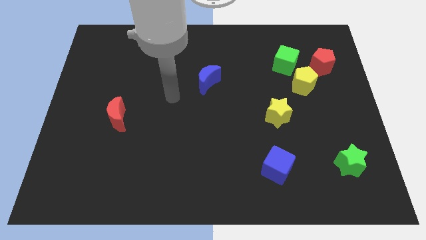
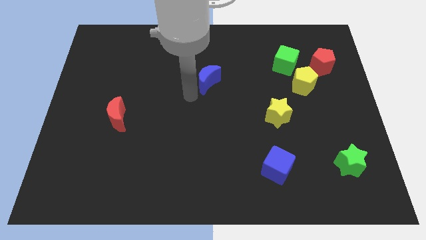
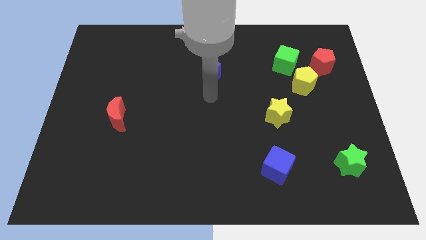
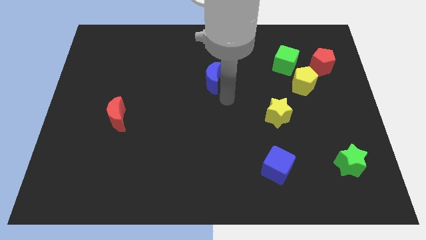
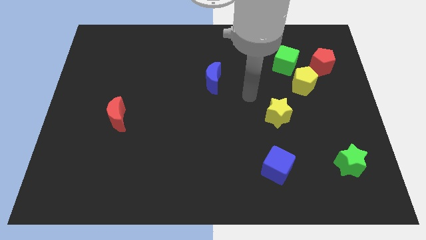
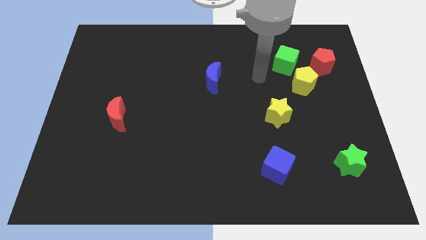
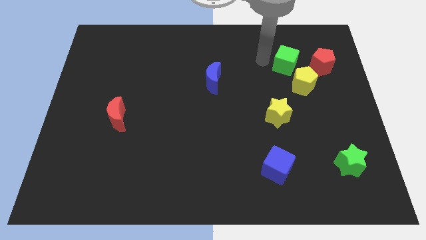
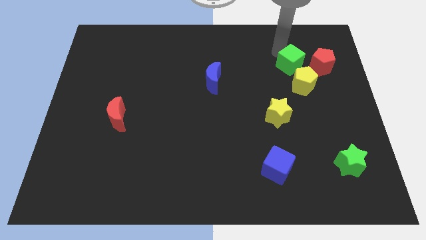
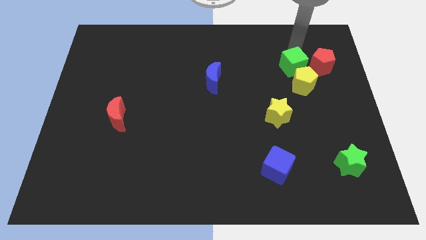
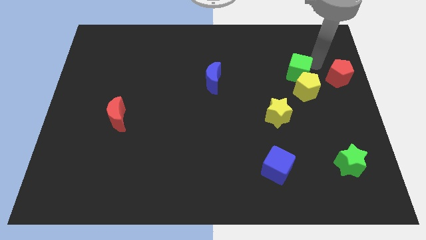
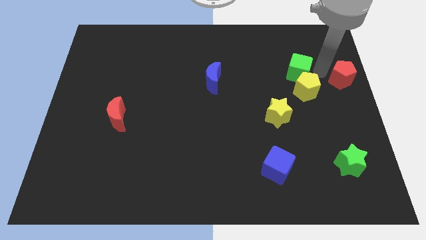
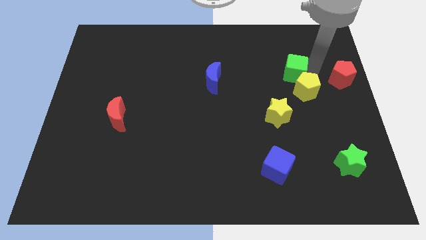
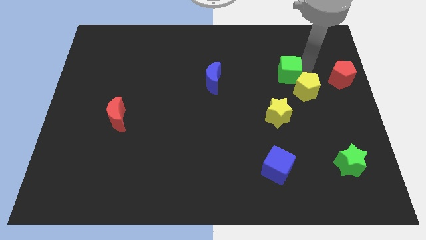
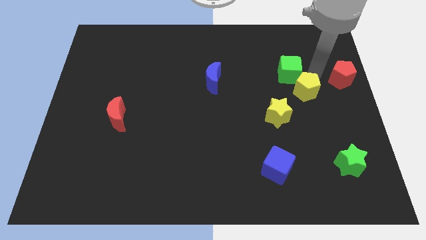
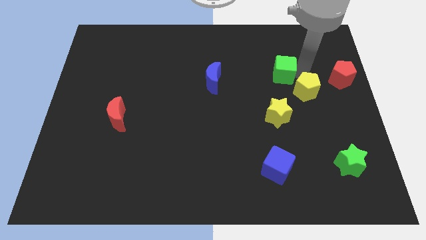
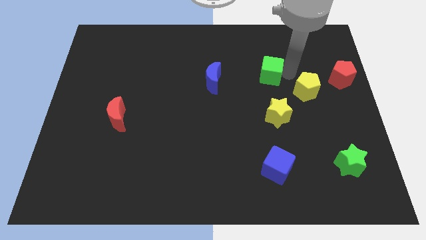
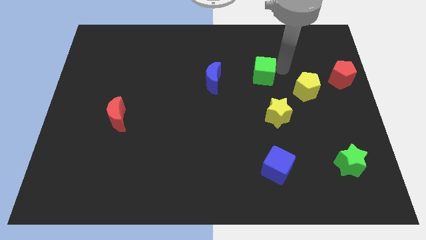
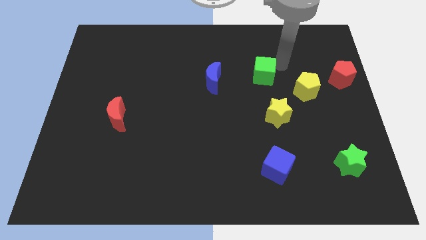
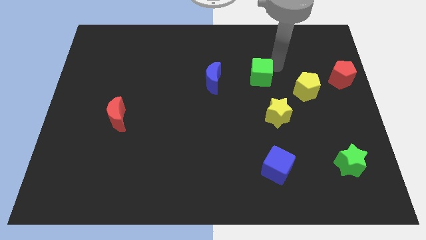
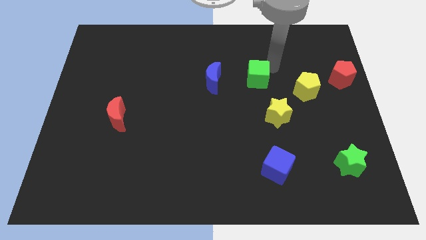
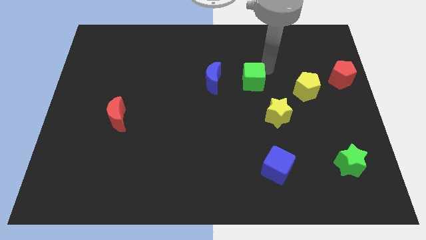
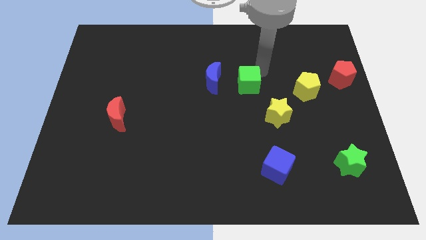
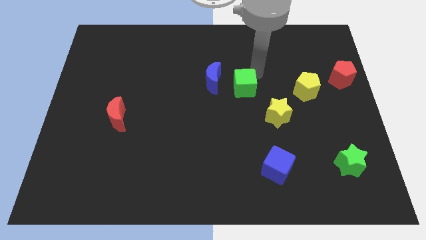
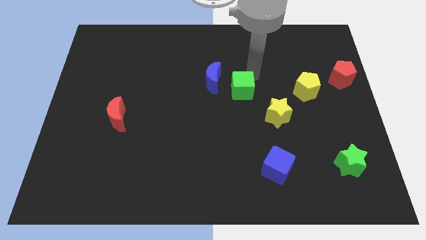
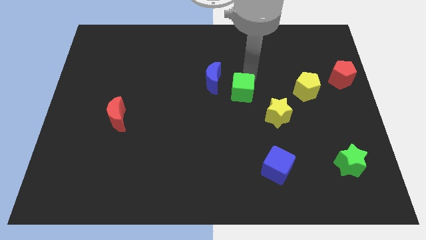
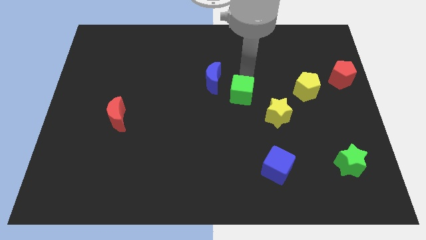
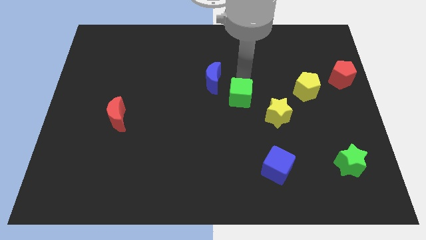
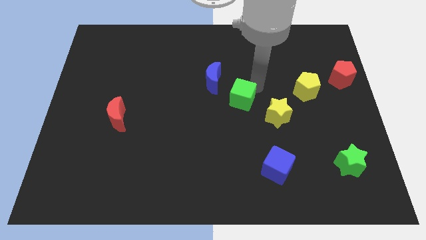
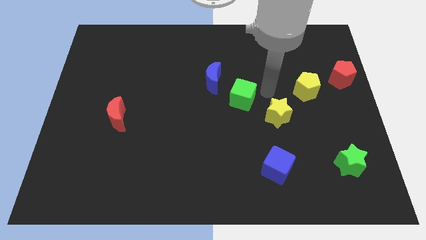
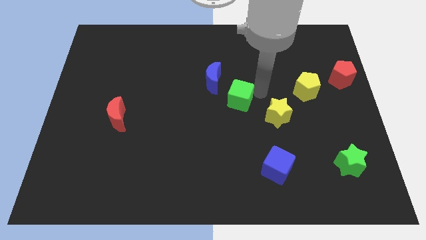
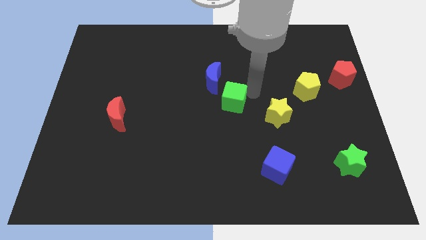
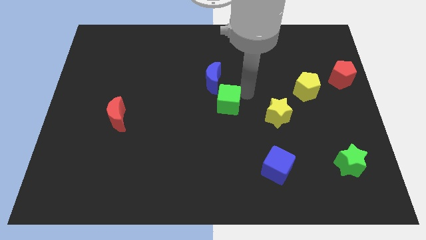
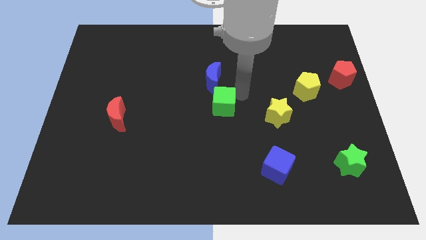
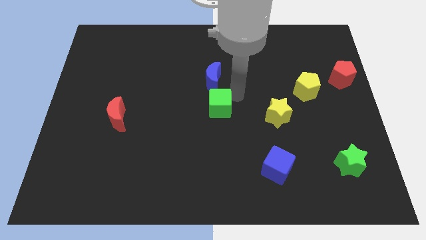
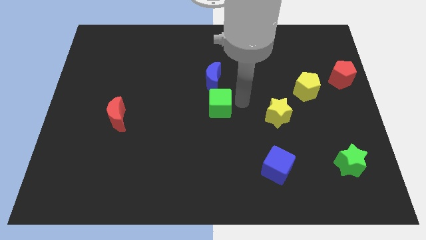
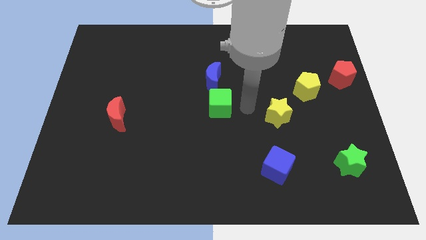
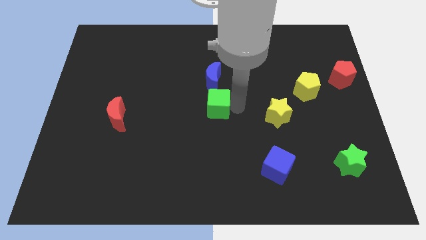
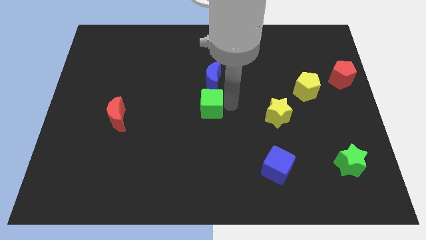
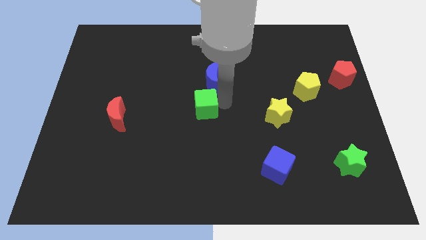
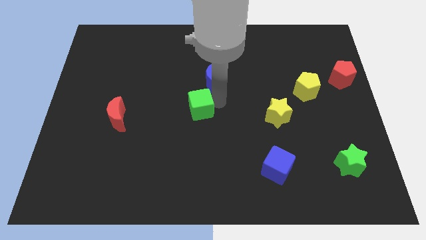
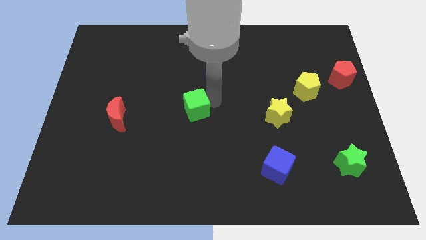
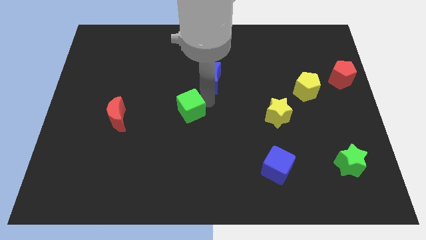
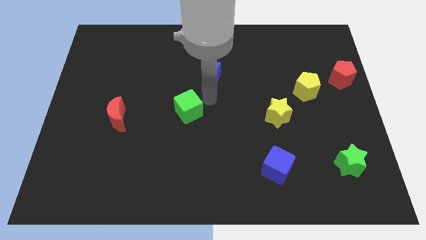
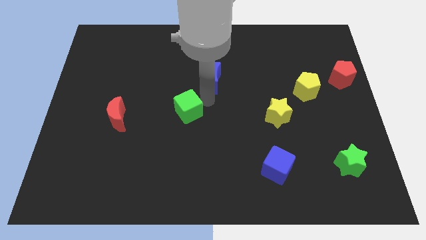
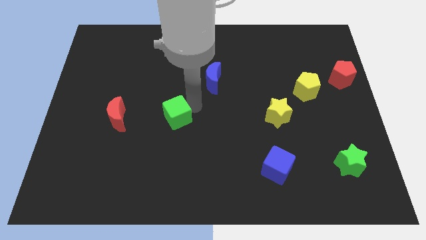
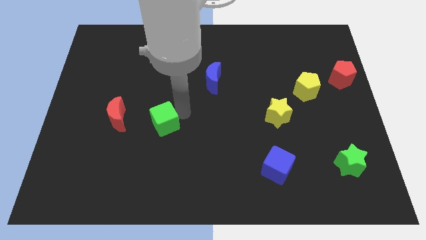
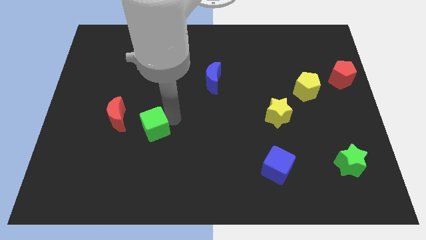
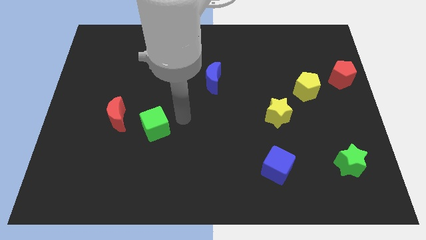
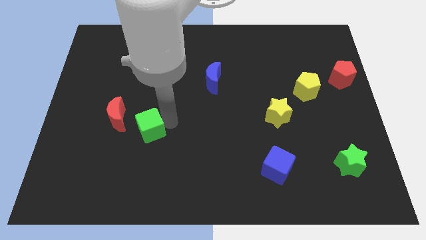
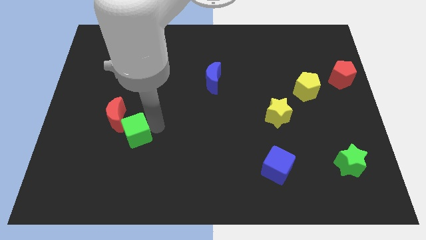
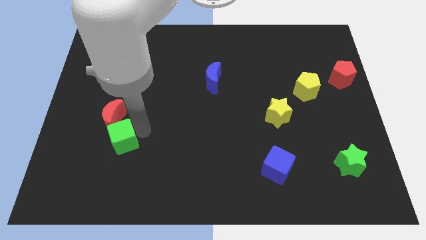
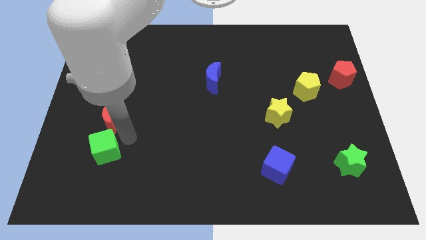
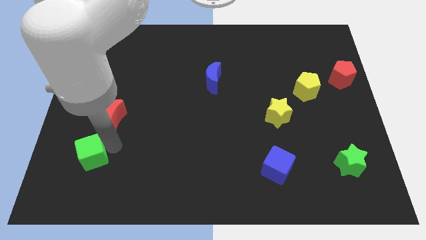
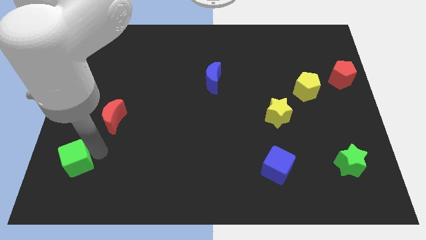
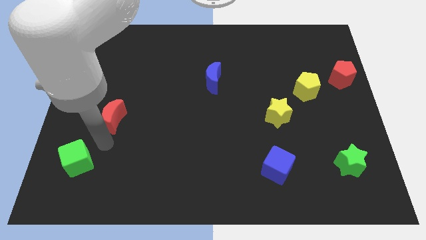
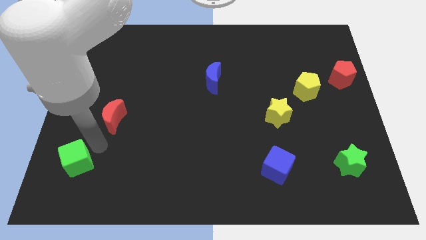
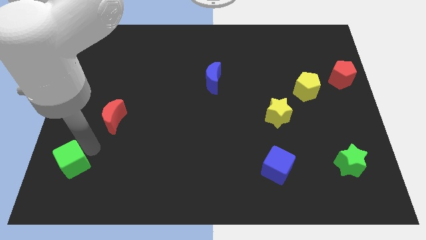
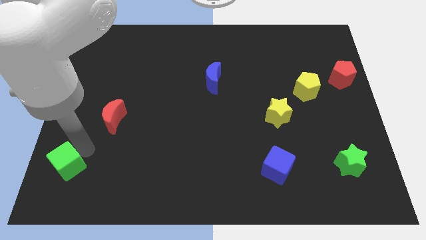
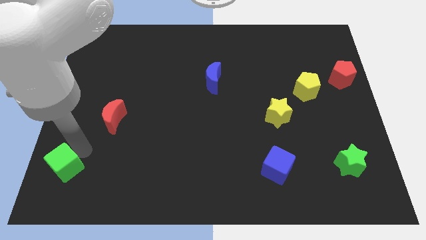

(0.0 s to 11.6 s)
slide the green cube to the bottom left corner

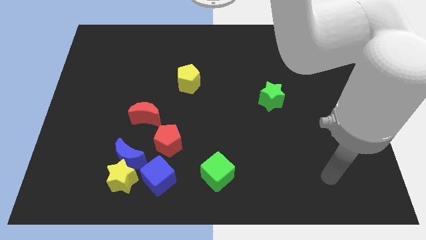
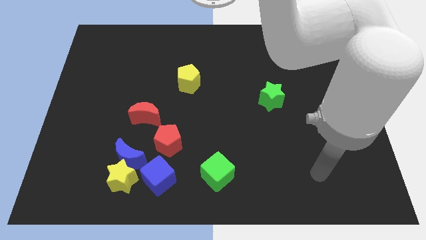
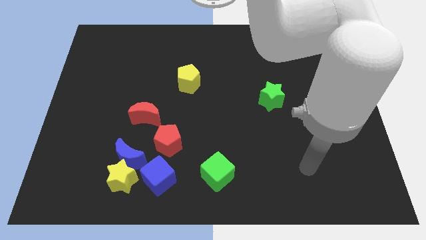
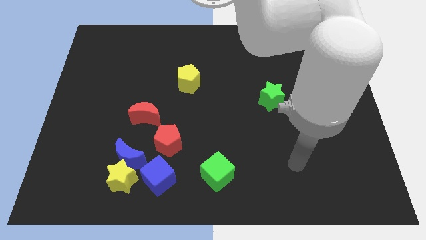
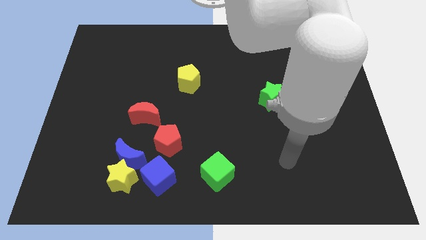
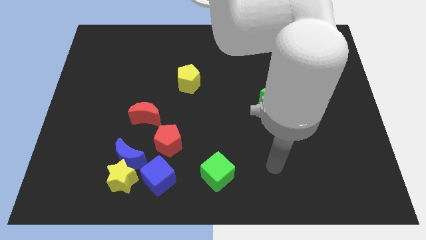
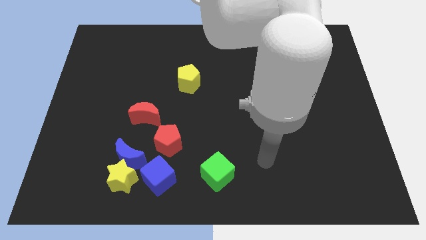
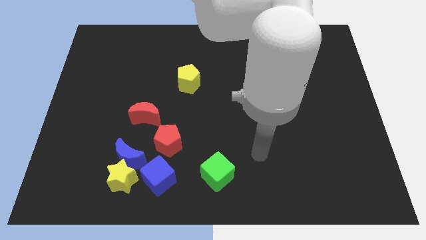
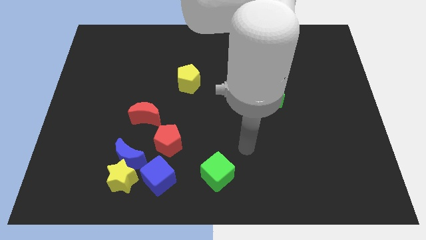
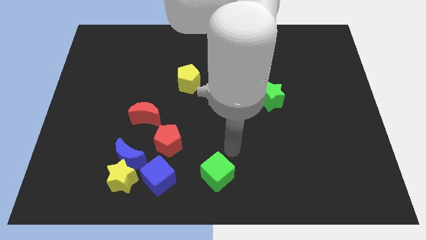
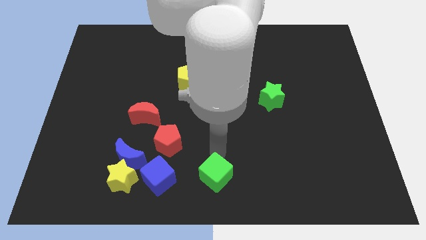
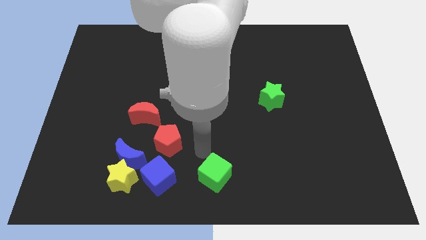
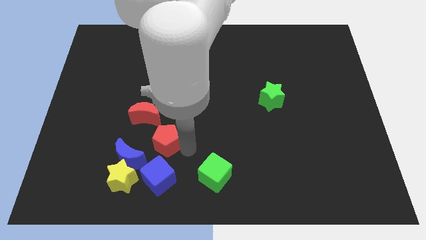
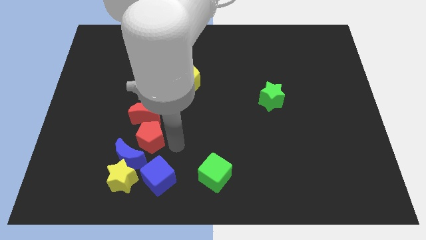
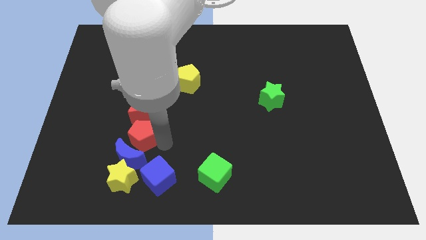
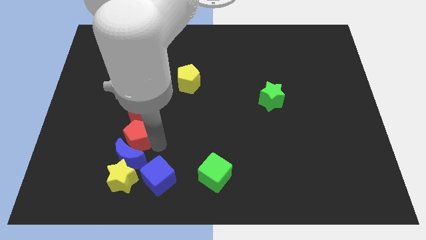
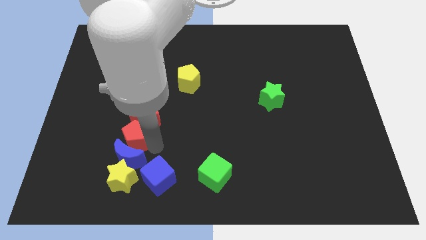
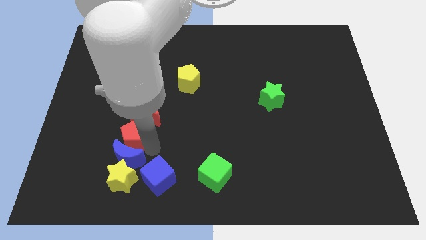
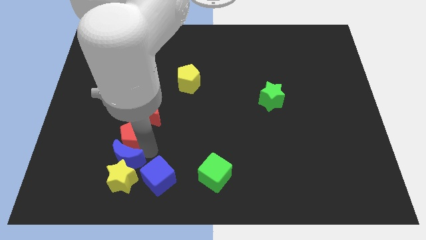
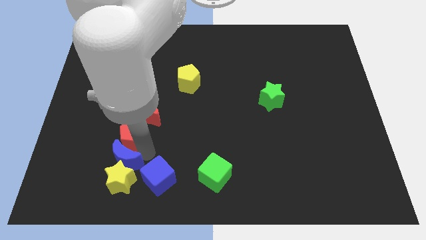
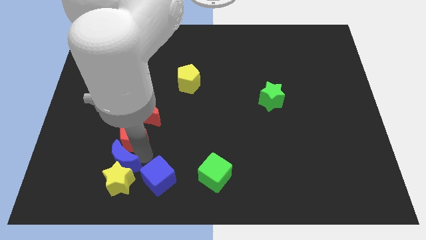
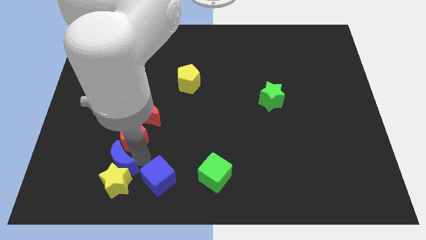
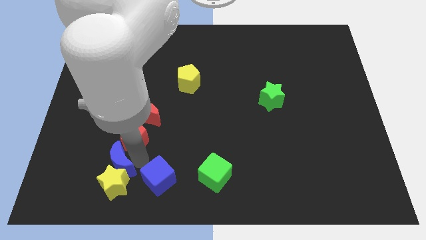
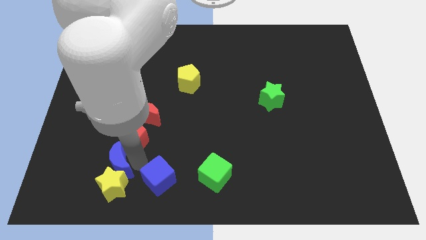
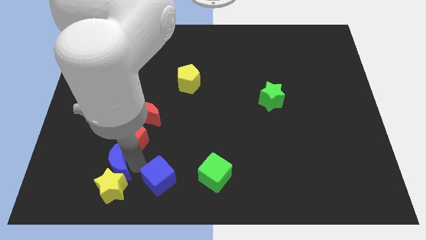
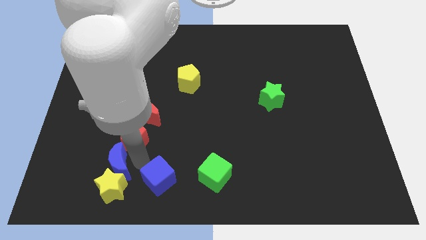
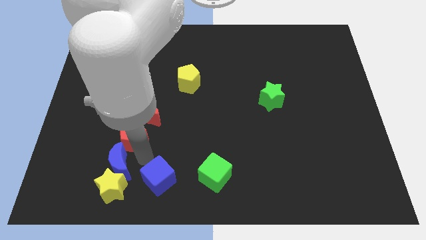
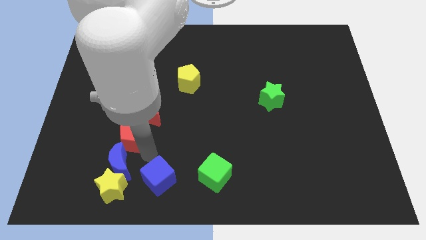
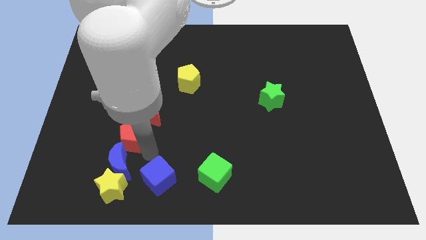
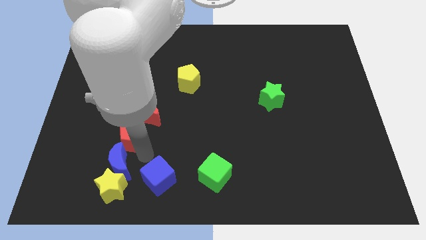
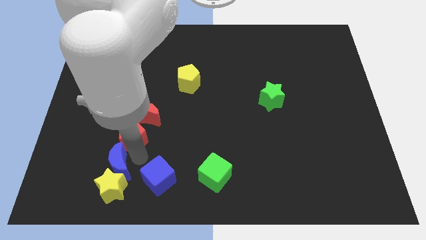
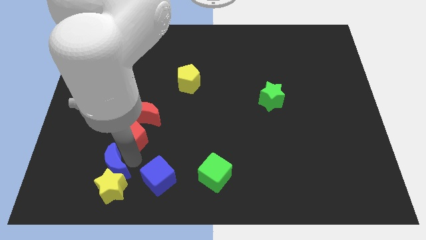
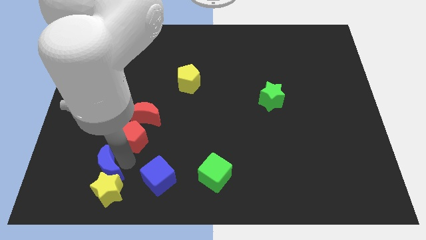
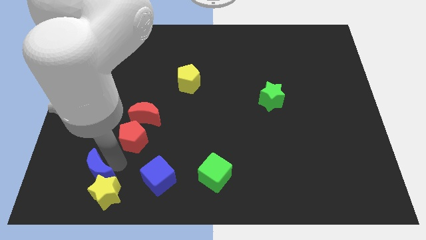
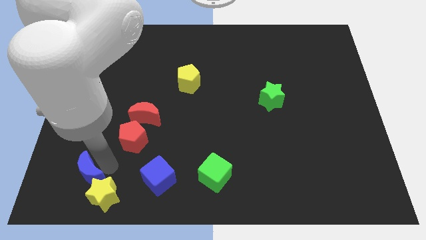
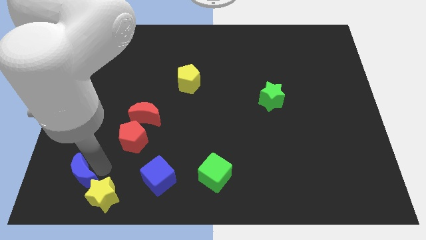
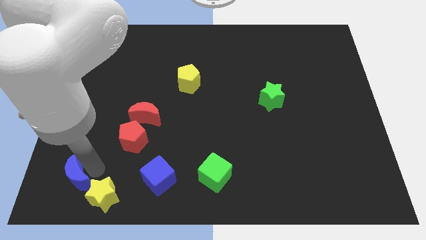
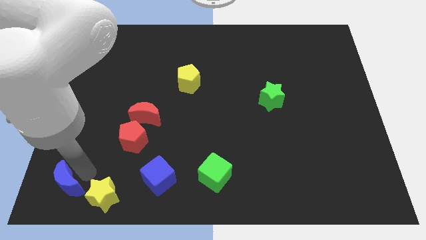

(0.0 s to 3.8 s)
push the blue moon to the bottom left of the board
